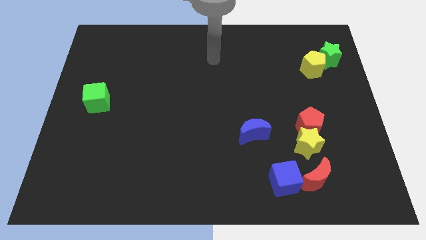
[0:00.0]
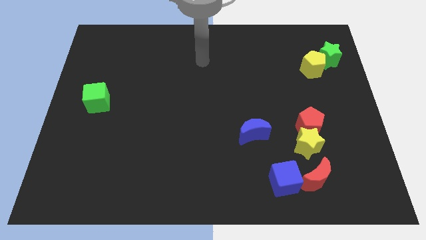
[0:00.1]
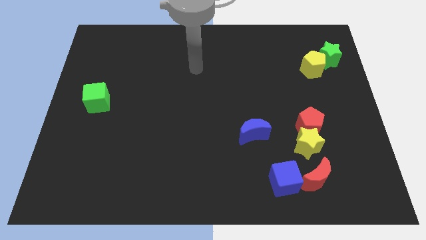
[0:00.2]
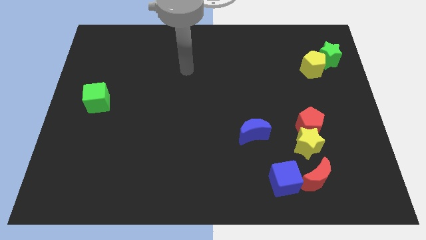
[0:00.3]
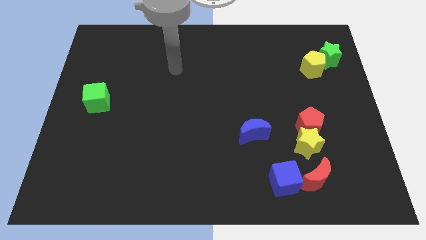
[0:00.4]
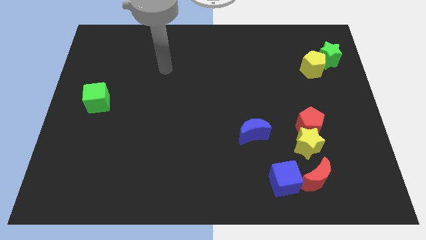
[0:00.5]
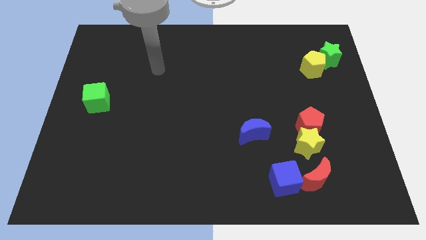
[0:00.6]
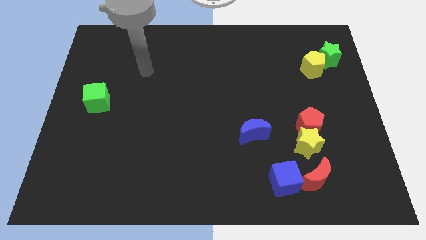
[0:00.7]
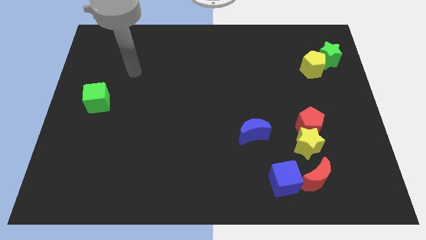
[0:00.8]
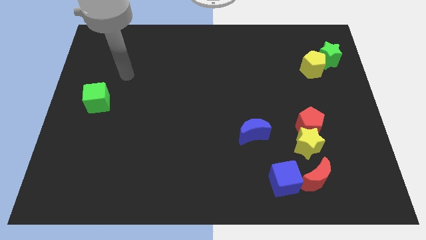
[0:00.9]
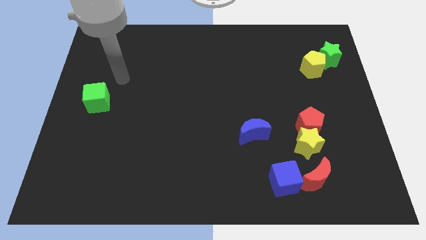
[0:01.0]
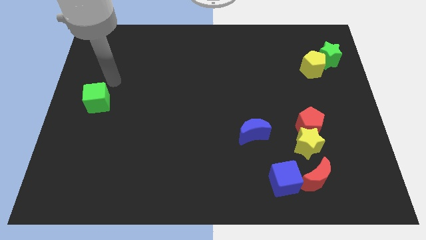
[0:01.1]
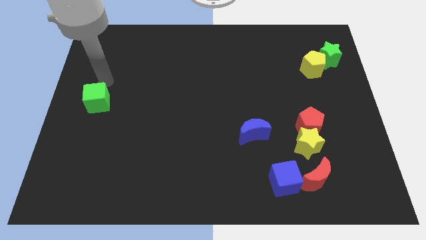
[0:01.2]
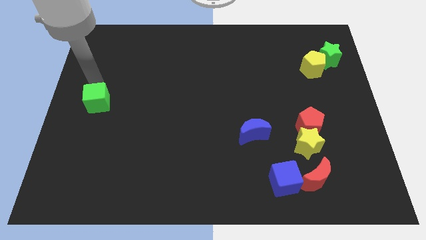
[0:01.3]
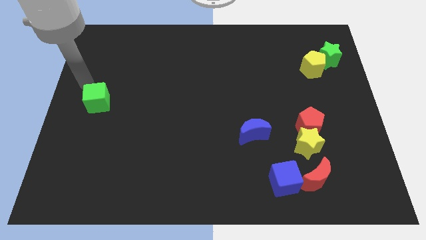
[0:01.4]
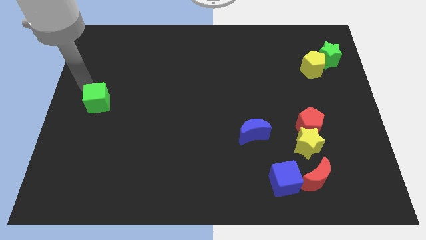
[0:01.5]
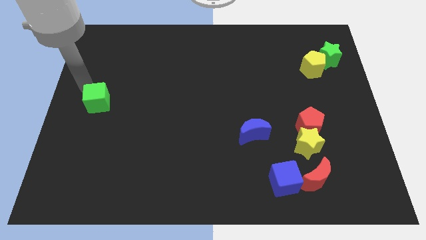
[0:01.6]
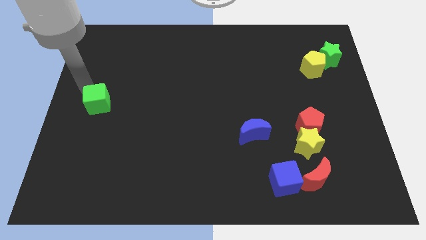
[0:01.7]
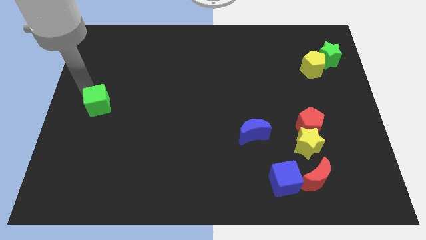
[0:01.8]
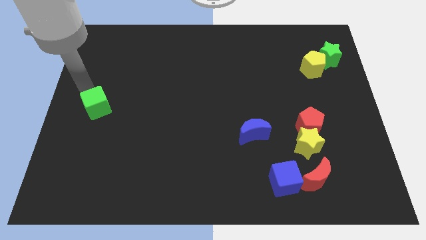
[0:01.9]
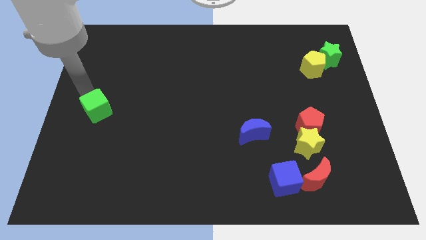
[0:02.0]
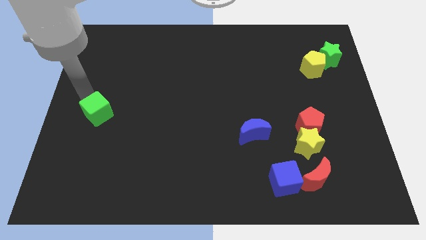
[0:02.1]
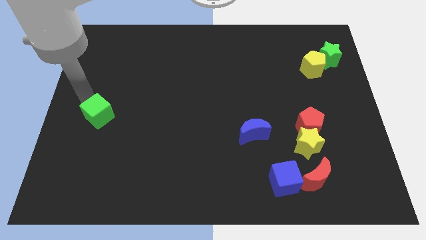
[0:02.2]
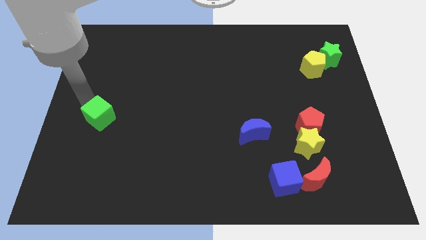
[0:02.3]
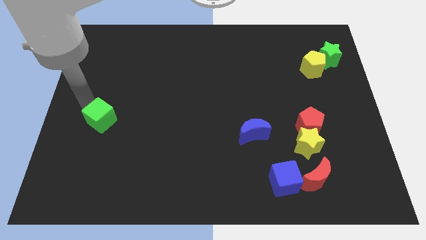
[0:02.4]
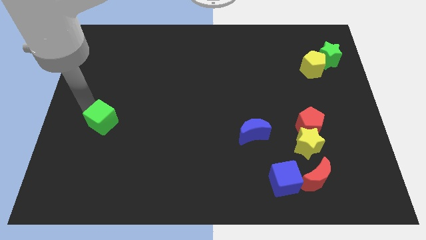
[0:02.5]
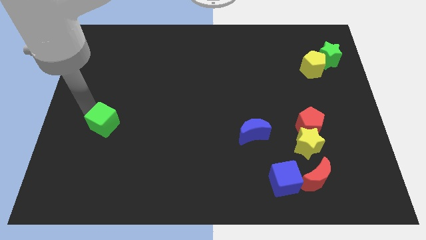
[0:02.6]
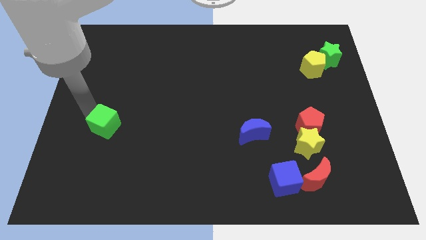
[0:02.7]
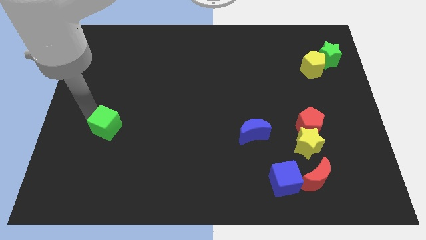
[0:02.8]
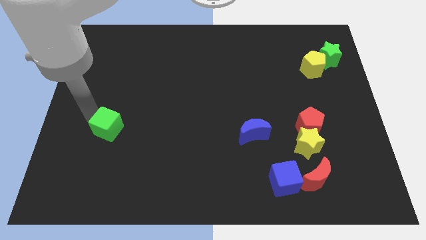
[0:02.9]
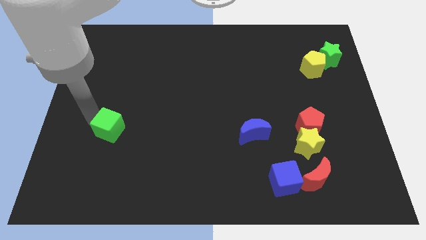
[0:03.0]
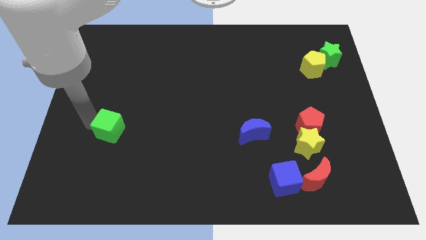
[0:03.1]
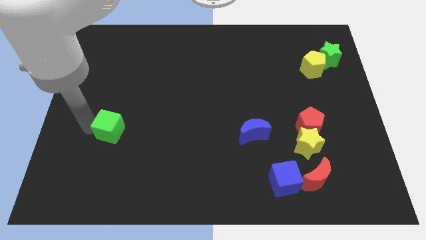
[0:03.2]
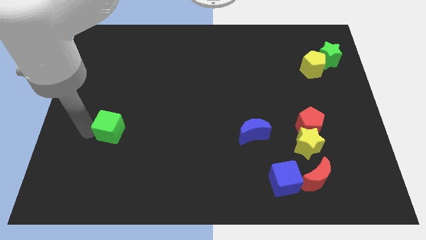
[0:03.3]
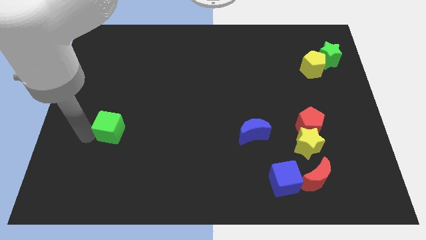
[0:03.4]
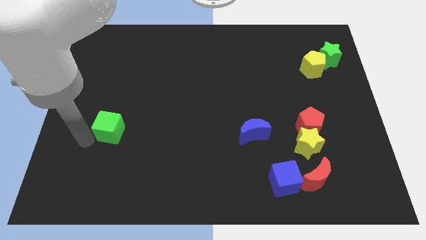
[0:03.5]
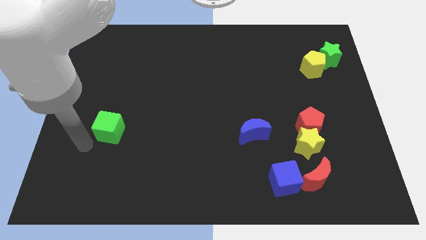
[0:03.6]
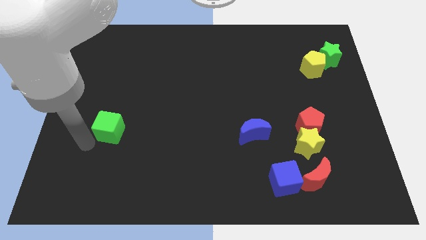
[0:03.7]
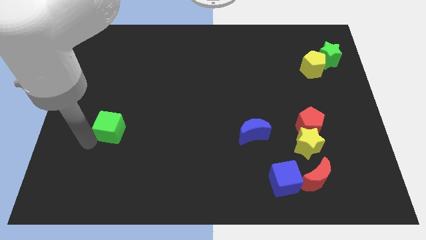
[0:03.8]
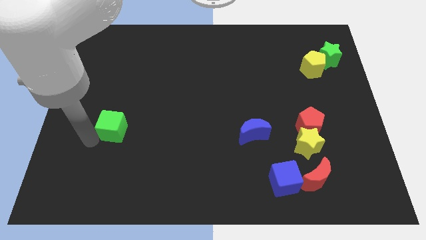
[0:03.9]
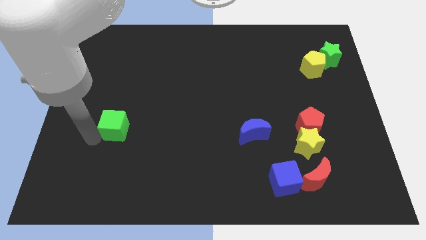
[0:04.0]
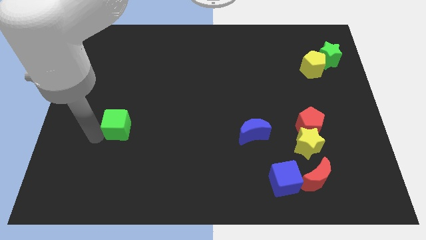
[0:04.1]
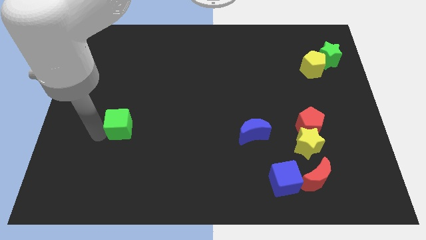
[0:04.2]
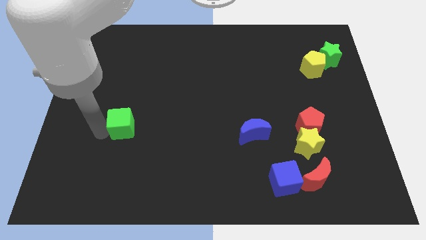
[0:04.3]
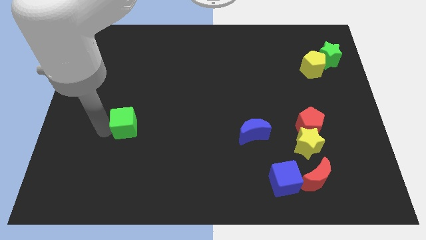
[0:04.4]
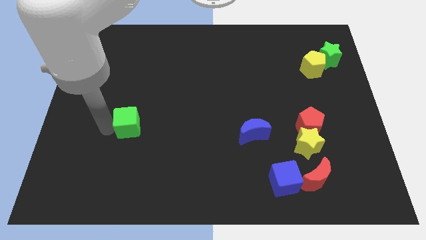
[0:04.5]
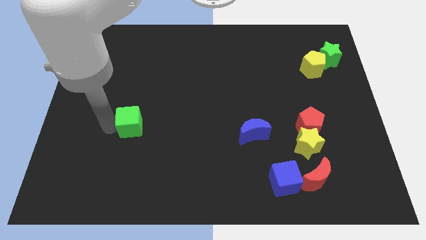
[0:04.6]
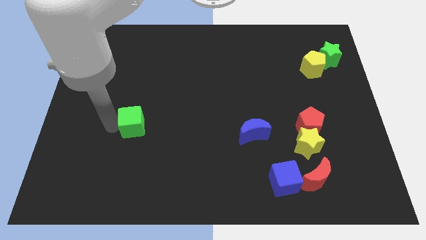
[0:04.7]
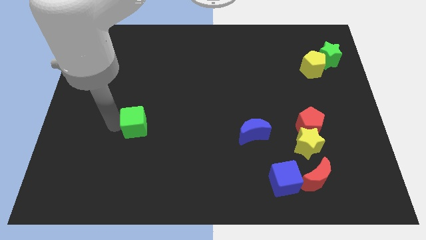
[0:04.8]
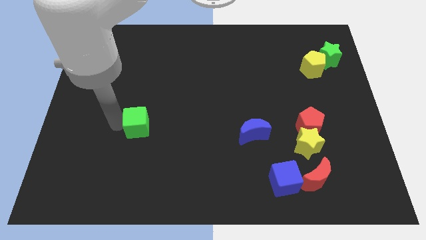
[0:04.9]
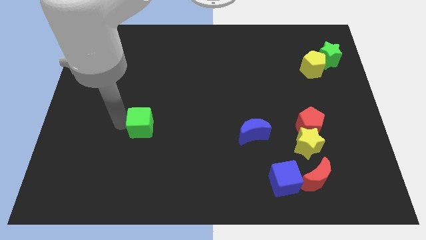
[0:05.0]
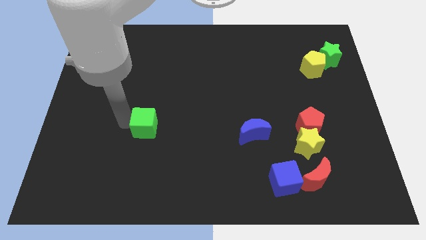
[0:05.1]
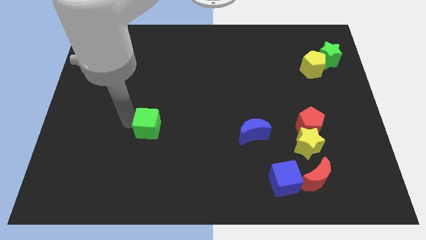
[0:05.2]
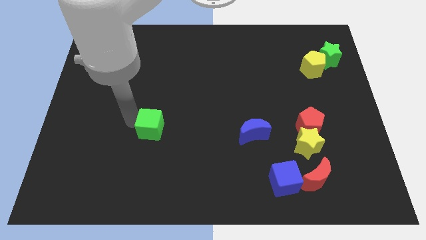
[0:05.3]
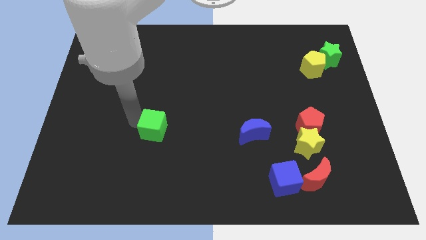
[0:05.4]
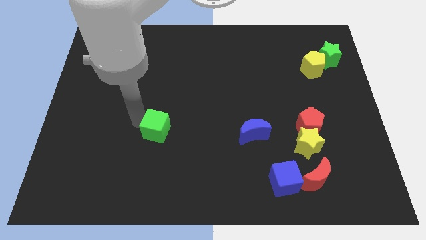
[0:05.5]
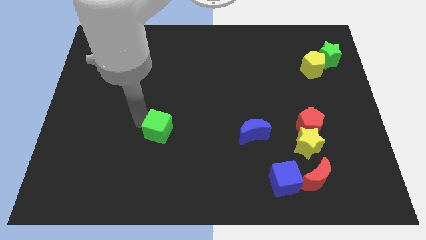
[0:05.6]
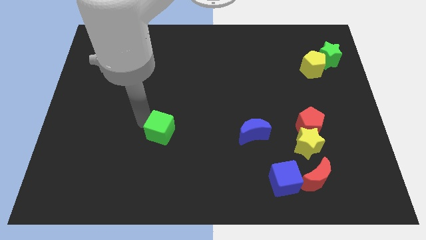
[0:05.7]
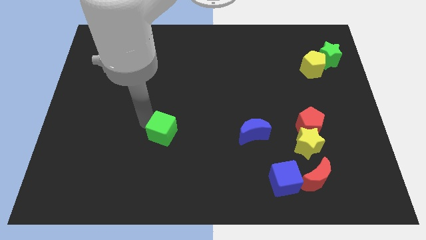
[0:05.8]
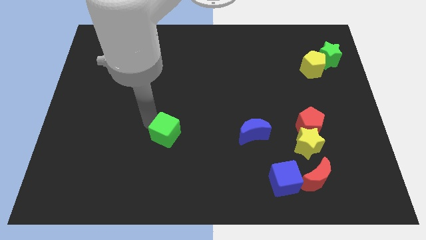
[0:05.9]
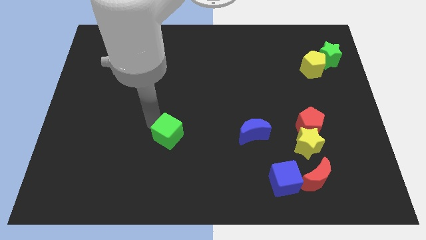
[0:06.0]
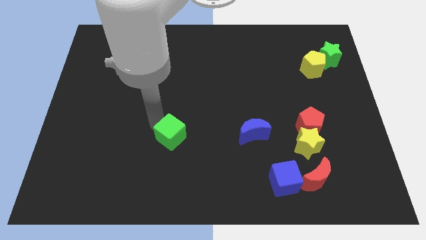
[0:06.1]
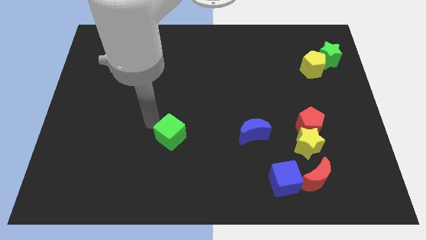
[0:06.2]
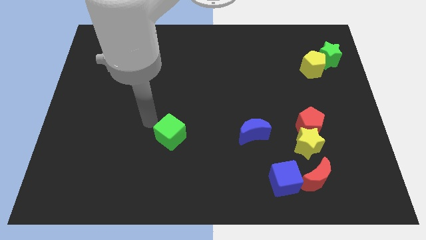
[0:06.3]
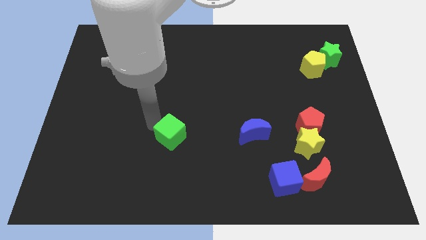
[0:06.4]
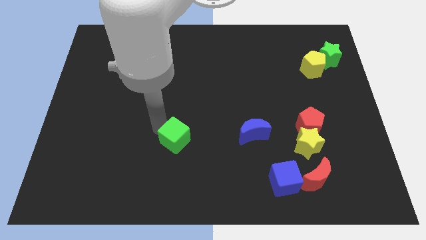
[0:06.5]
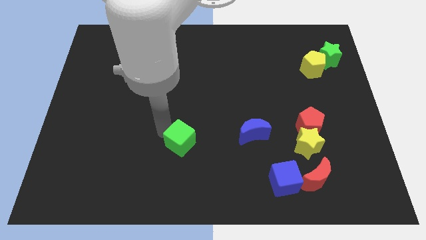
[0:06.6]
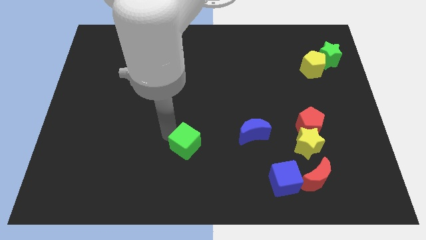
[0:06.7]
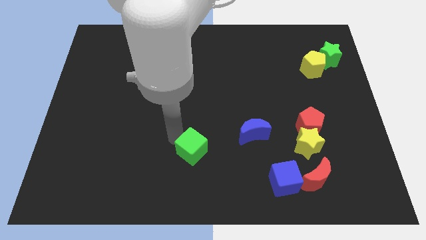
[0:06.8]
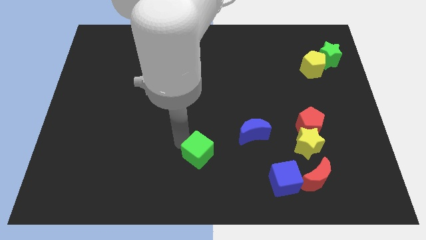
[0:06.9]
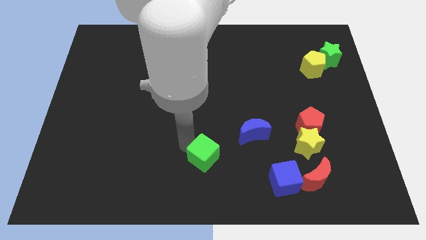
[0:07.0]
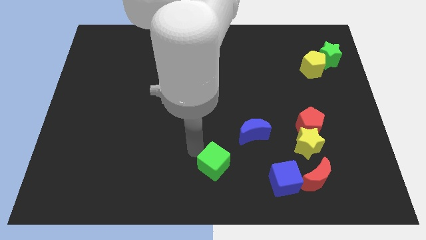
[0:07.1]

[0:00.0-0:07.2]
slide the green cube left of the blue cube
